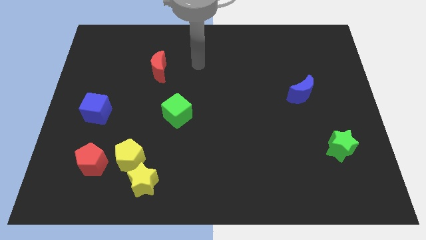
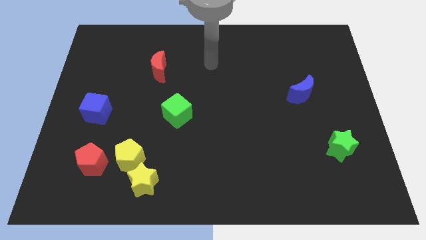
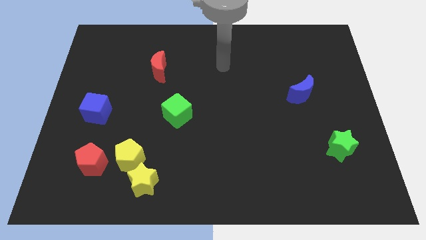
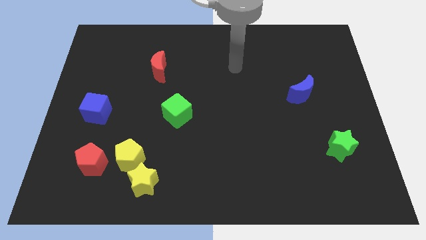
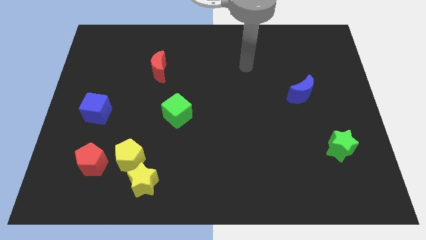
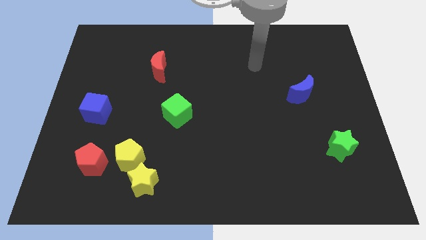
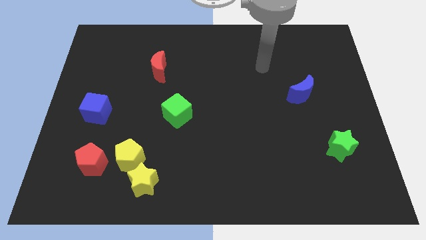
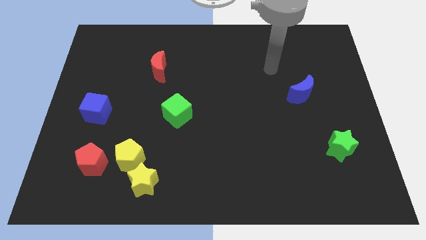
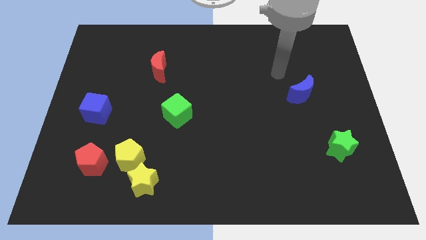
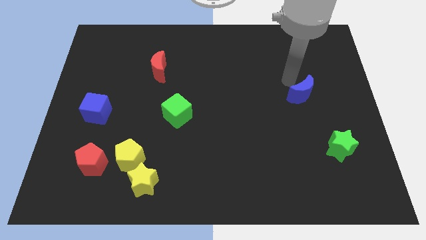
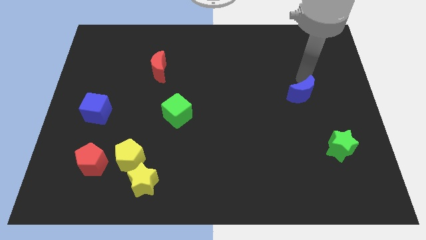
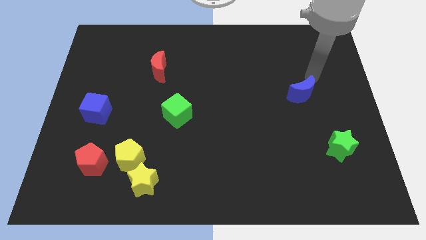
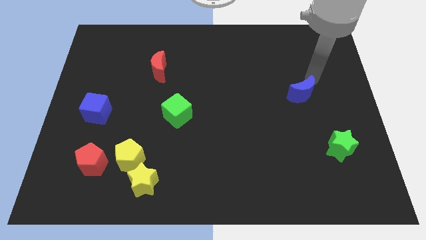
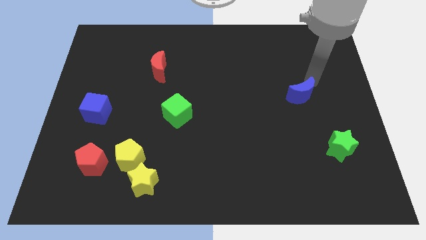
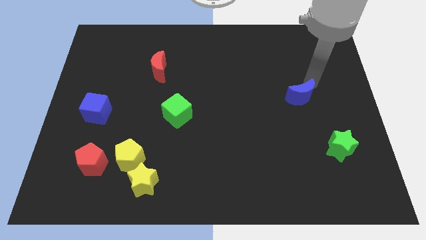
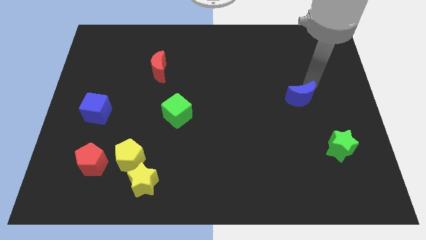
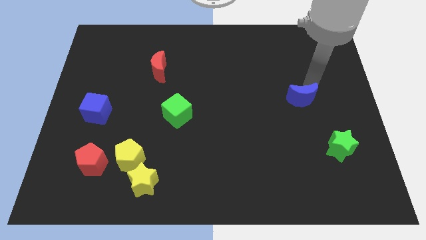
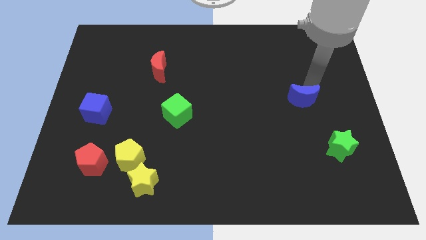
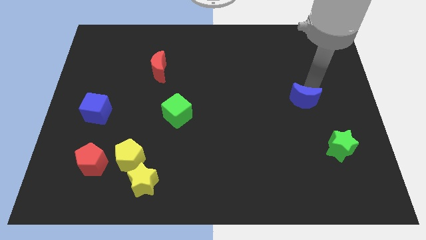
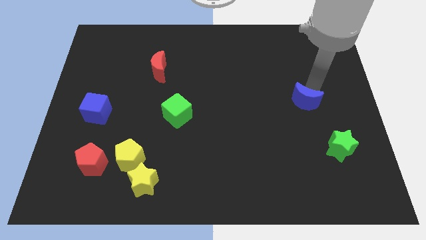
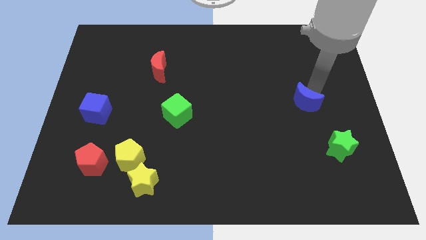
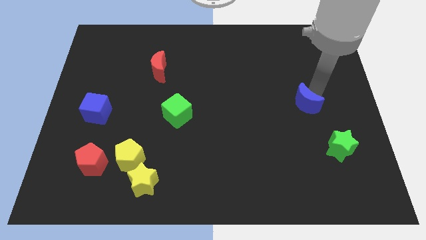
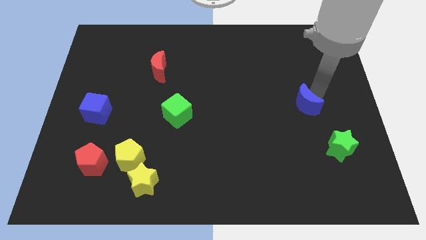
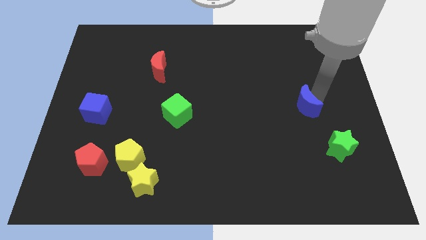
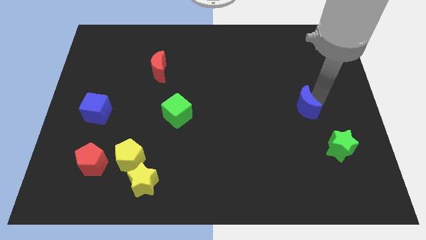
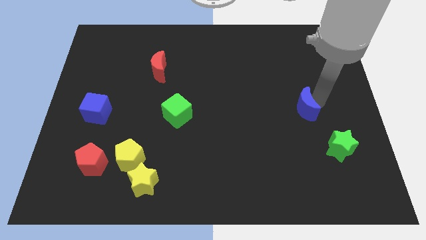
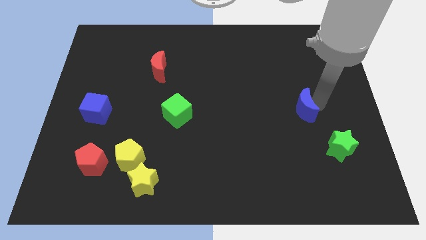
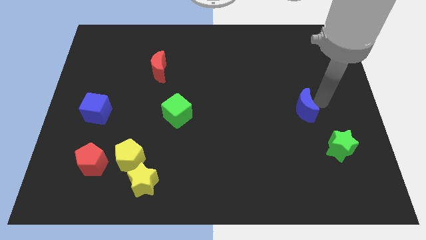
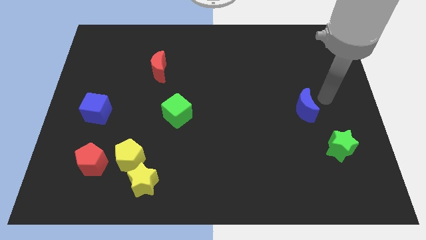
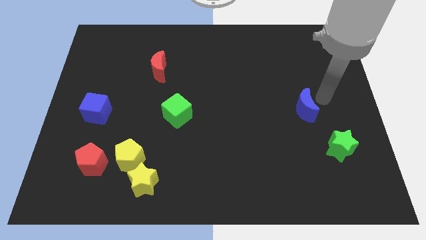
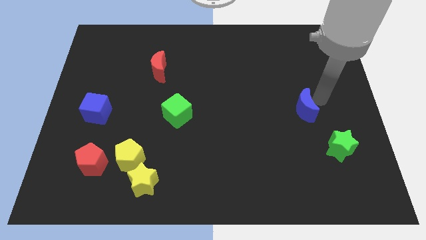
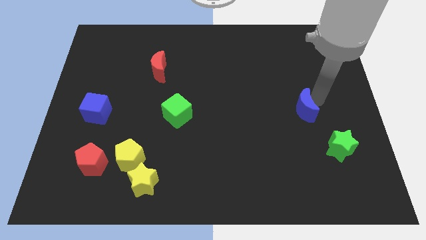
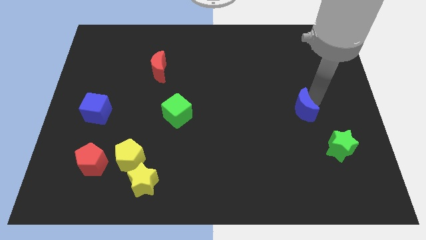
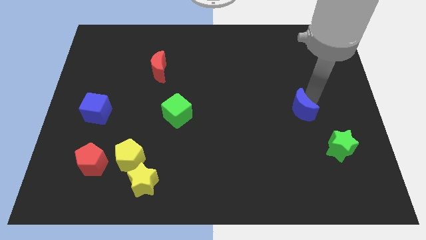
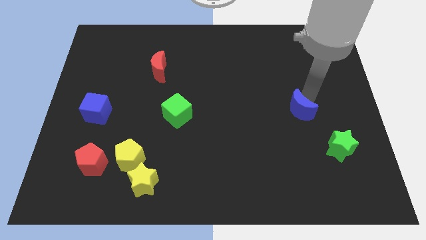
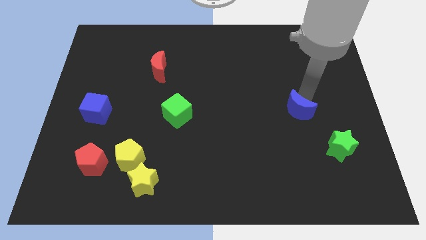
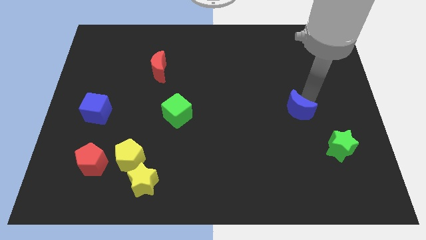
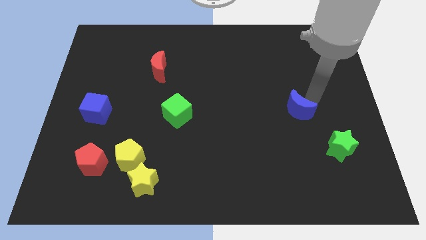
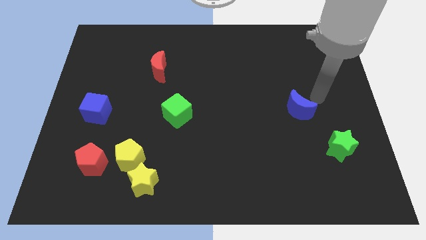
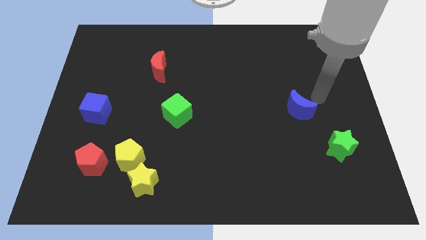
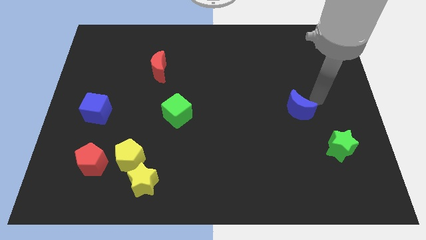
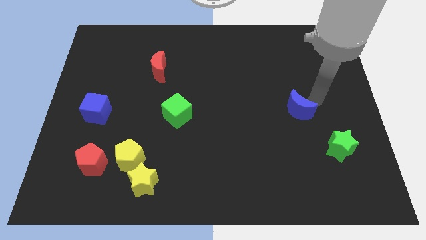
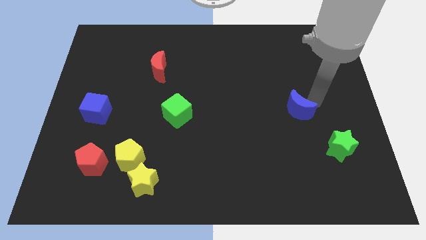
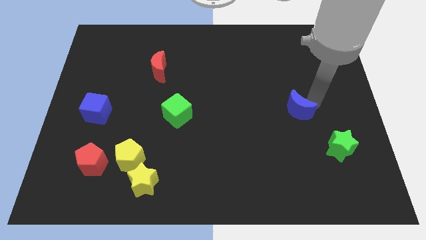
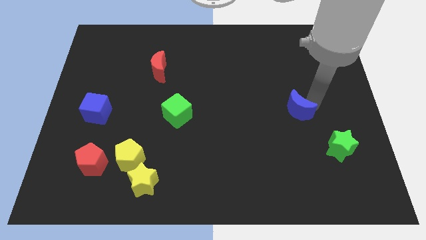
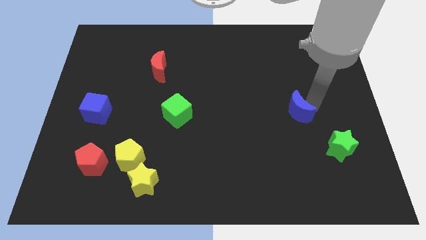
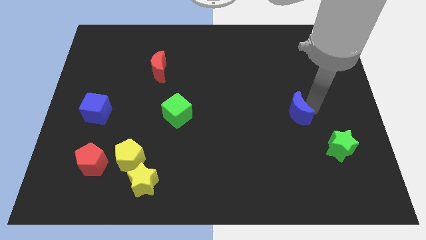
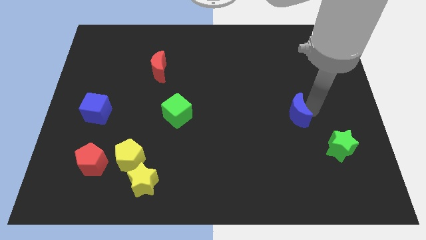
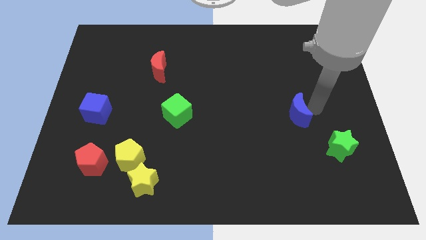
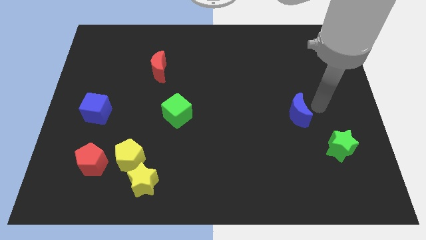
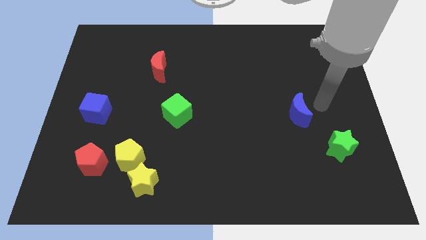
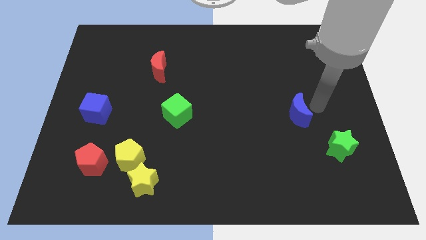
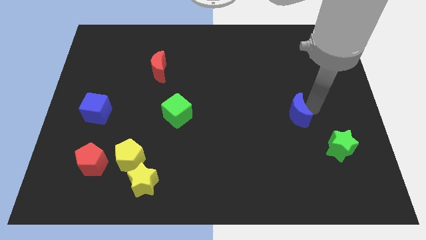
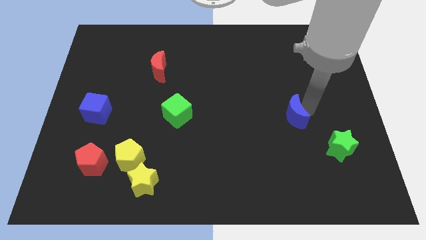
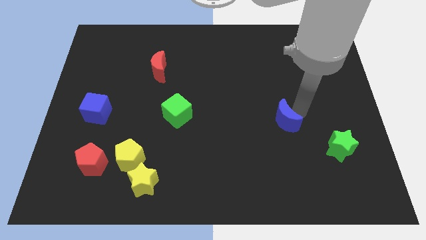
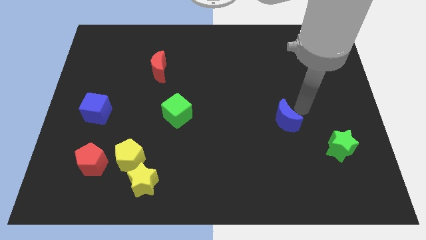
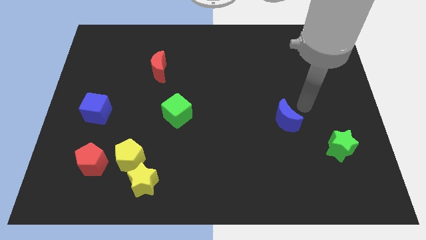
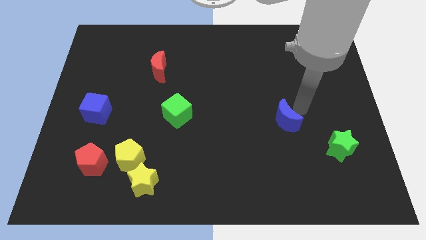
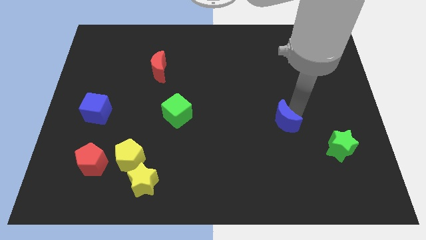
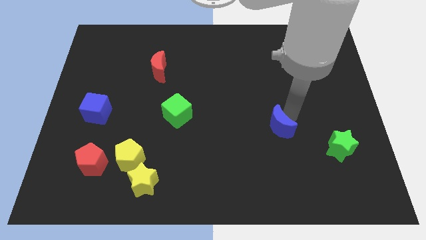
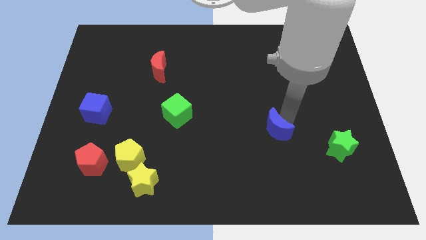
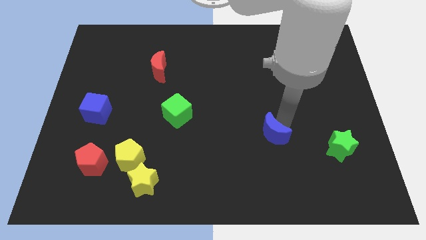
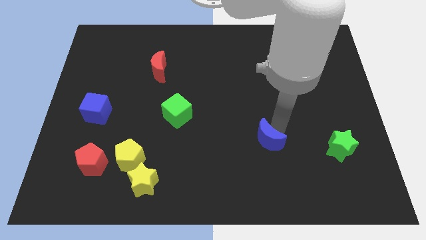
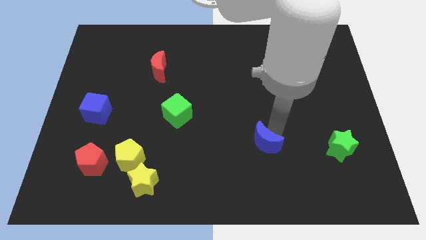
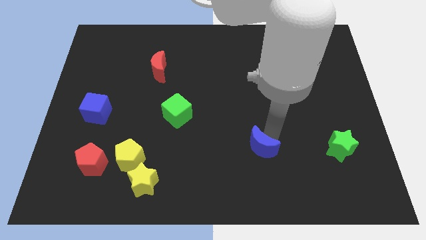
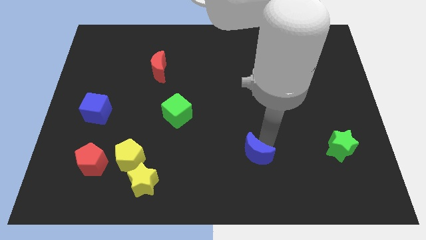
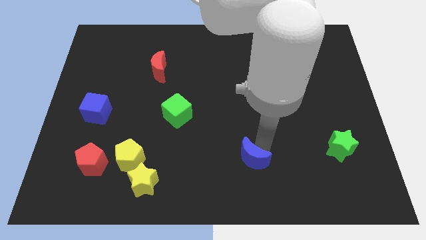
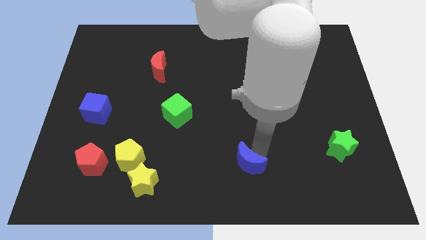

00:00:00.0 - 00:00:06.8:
put the blue moon to the bottom
